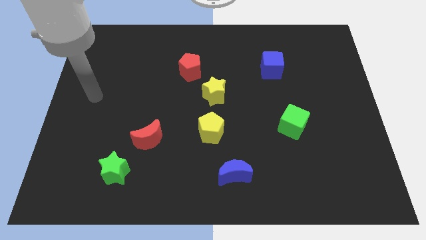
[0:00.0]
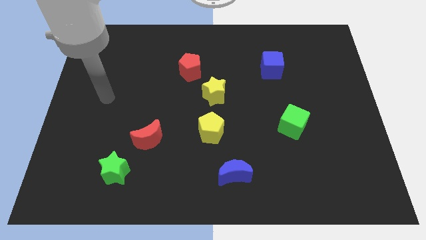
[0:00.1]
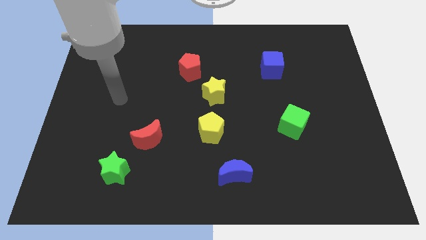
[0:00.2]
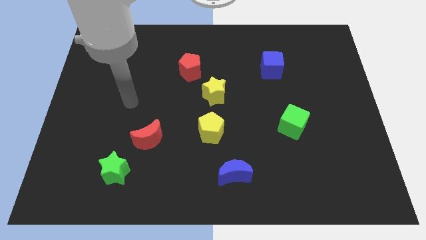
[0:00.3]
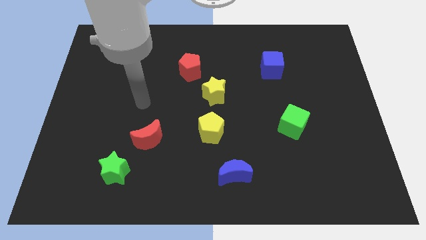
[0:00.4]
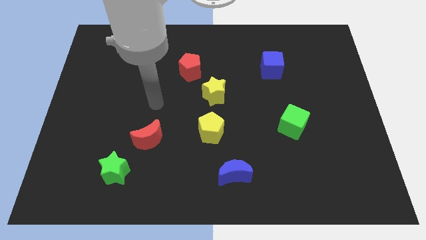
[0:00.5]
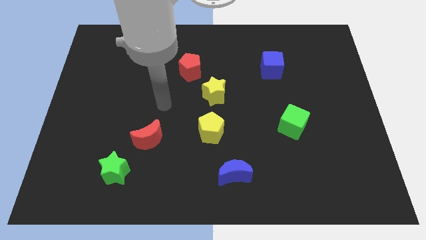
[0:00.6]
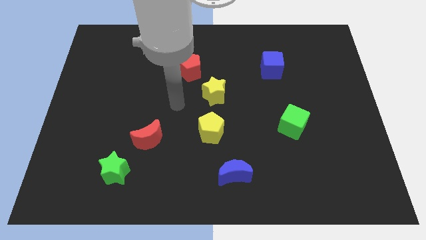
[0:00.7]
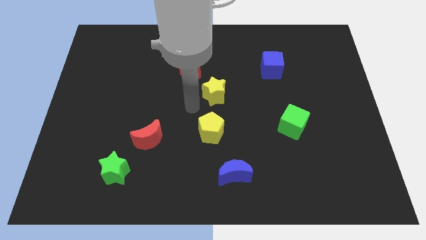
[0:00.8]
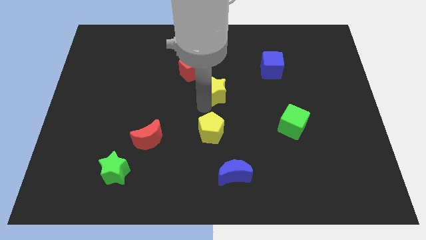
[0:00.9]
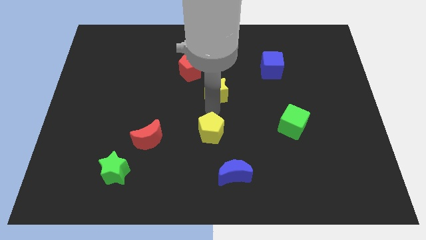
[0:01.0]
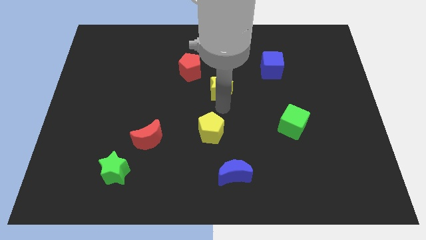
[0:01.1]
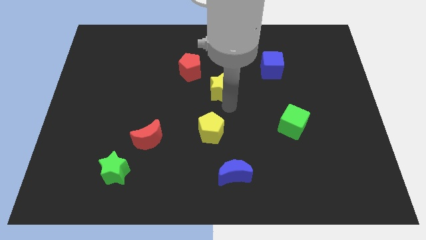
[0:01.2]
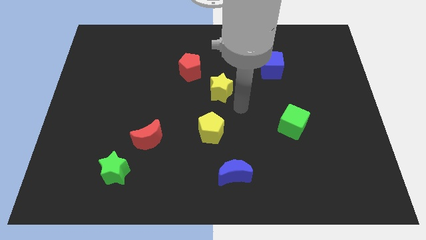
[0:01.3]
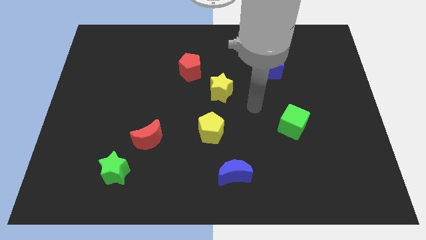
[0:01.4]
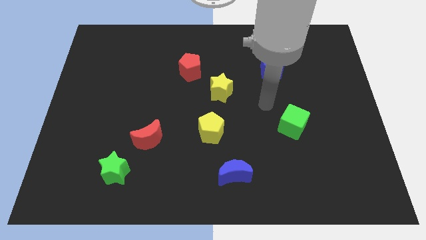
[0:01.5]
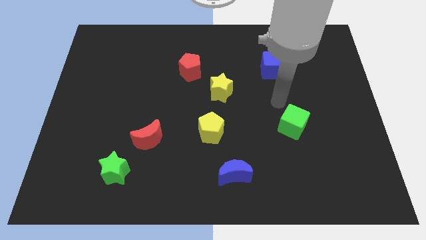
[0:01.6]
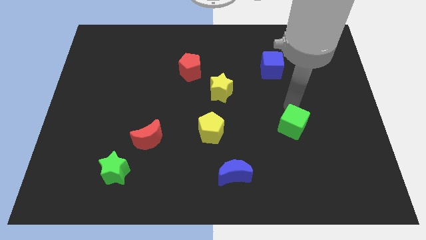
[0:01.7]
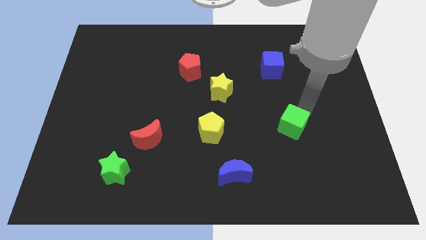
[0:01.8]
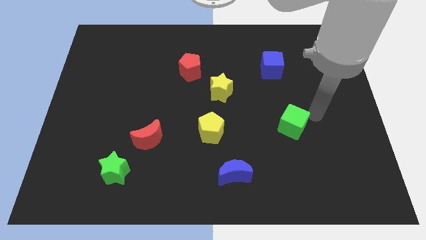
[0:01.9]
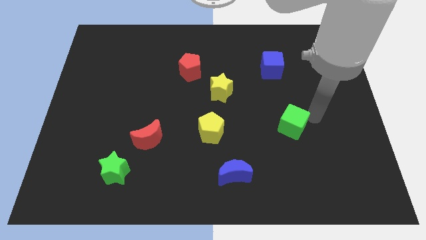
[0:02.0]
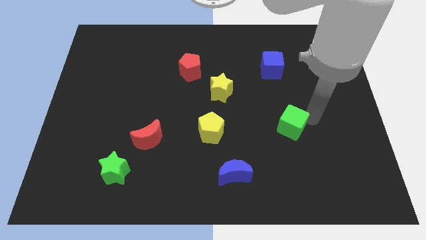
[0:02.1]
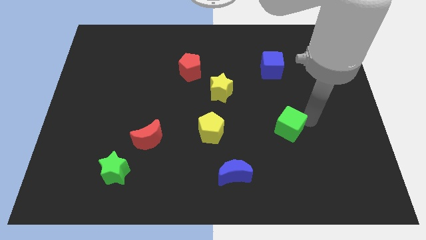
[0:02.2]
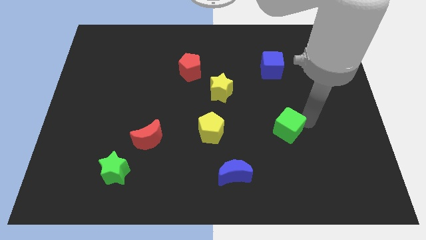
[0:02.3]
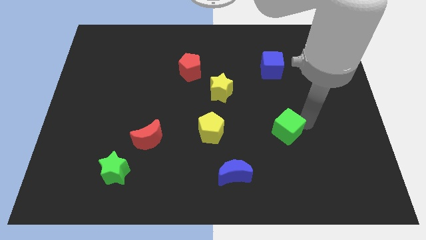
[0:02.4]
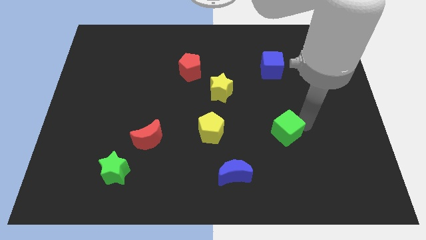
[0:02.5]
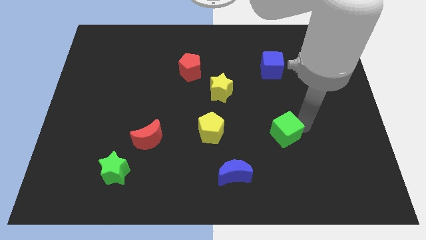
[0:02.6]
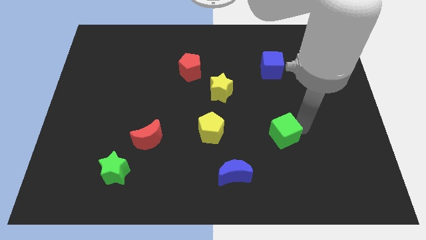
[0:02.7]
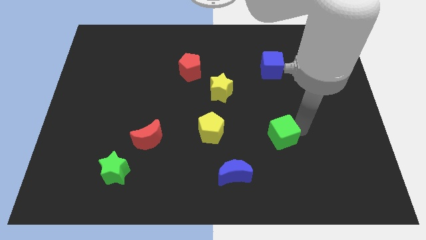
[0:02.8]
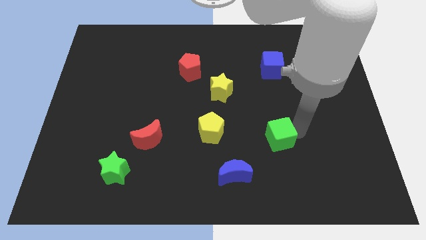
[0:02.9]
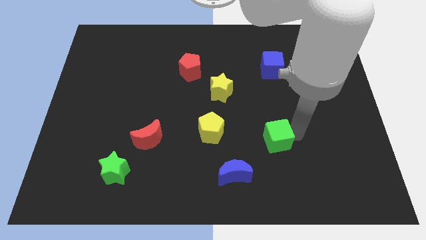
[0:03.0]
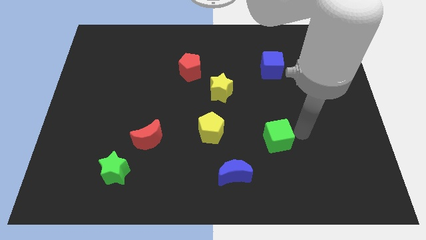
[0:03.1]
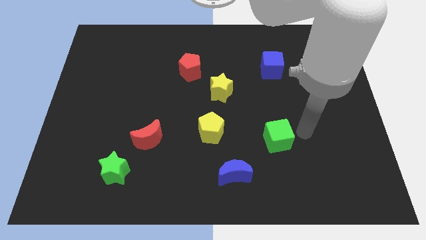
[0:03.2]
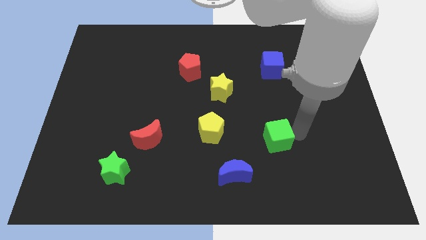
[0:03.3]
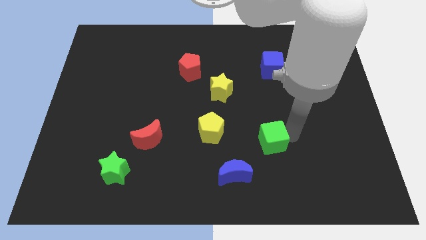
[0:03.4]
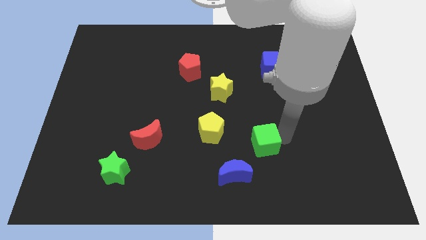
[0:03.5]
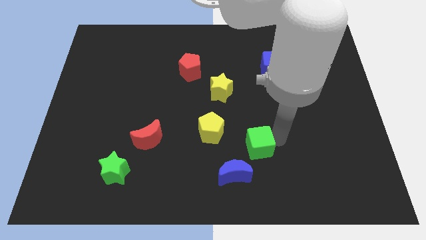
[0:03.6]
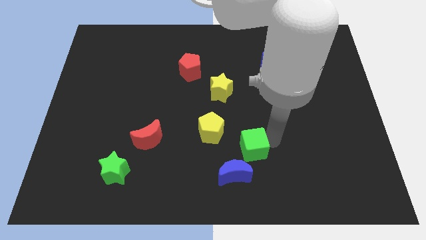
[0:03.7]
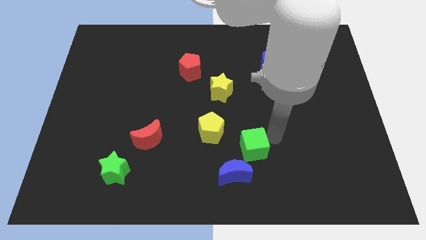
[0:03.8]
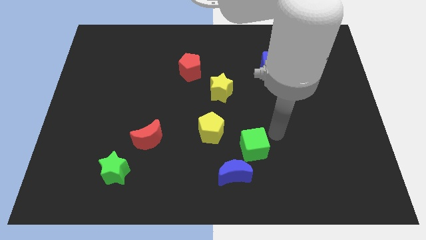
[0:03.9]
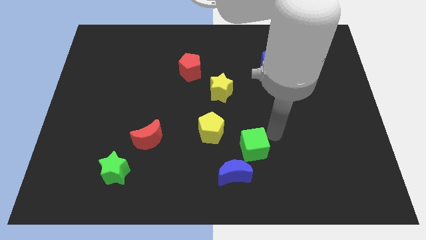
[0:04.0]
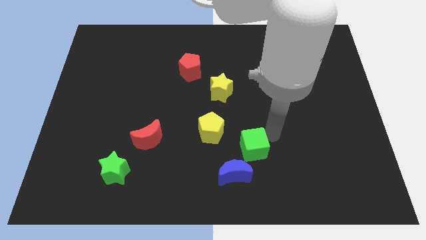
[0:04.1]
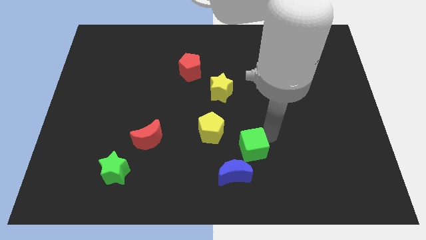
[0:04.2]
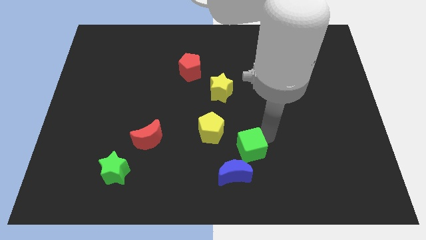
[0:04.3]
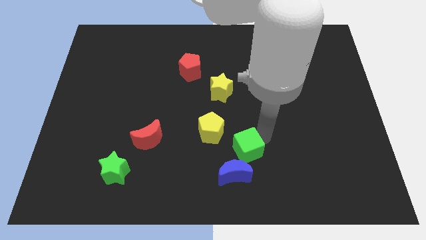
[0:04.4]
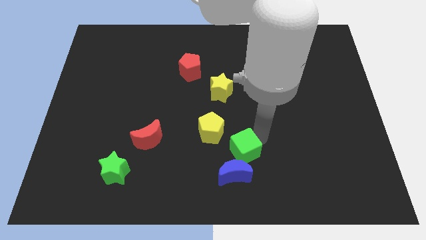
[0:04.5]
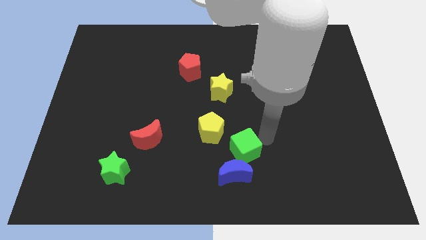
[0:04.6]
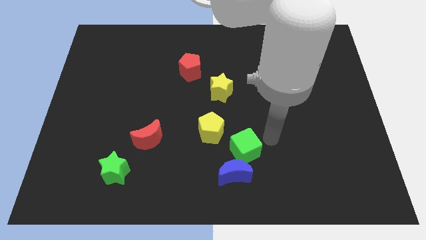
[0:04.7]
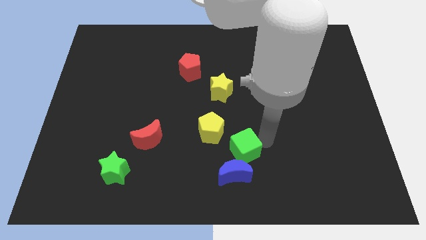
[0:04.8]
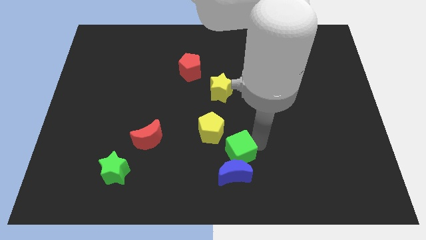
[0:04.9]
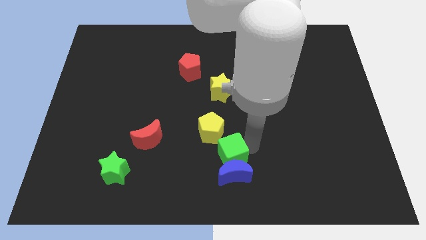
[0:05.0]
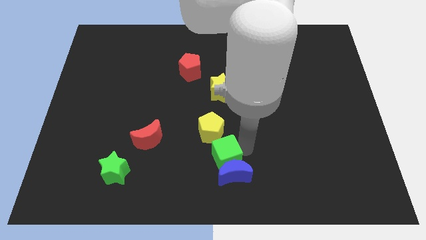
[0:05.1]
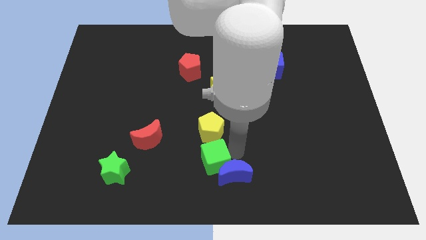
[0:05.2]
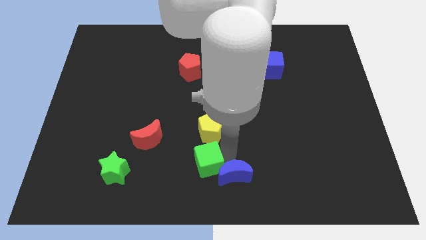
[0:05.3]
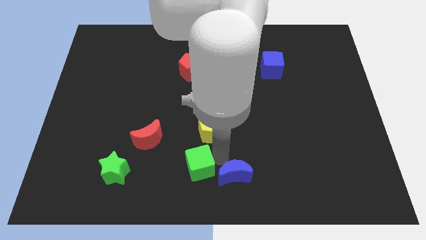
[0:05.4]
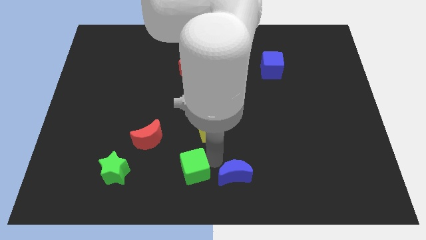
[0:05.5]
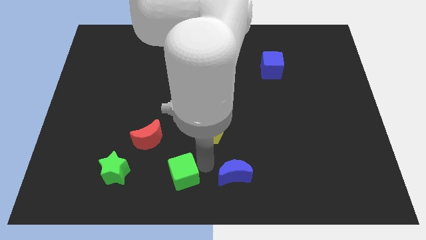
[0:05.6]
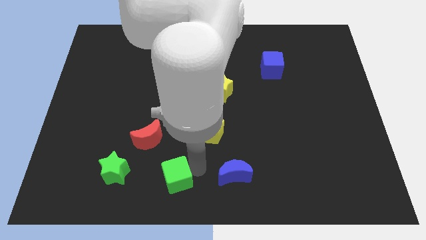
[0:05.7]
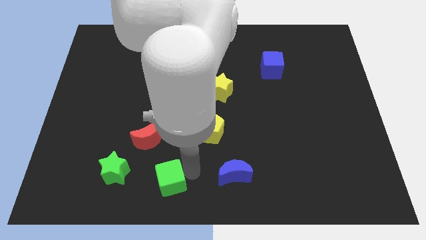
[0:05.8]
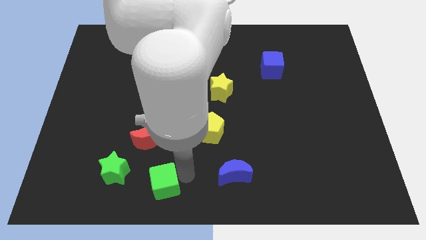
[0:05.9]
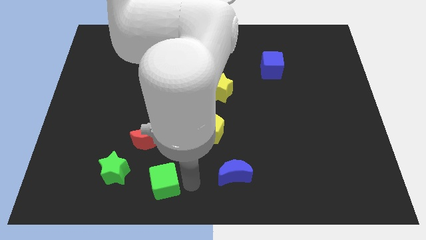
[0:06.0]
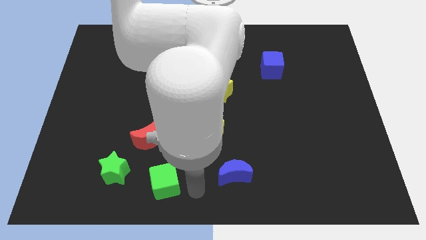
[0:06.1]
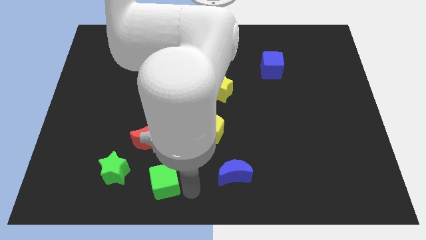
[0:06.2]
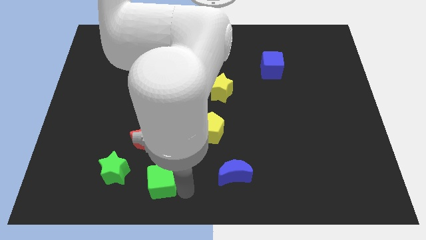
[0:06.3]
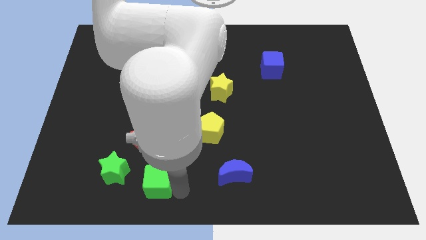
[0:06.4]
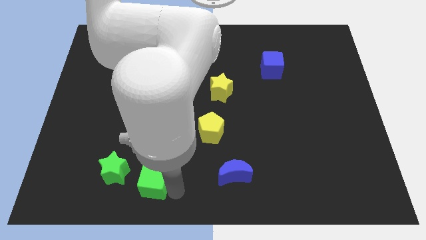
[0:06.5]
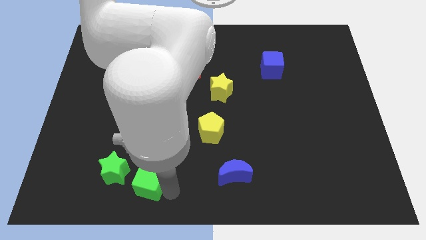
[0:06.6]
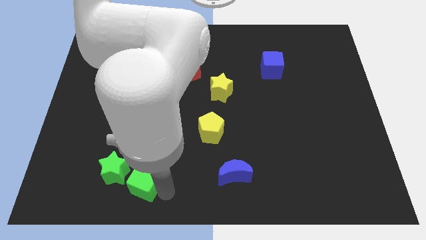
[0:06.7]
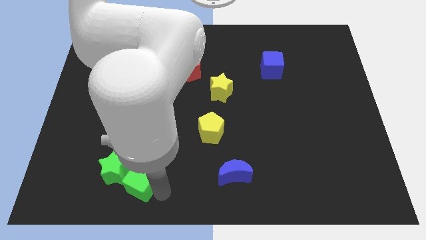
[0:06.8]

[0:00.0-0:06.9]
put the green cube to the green star

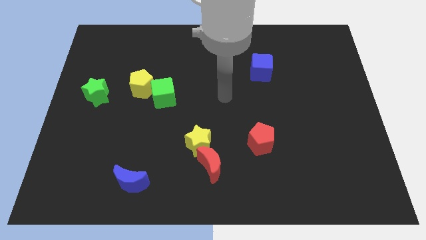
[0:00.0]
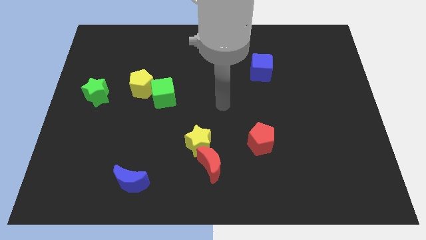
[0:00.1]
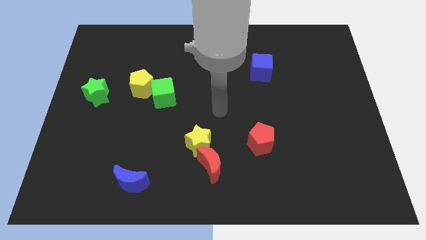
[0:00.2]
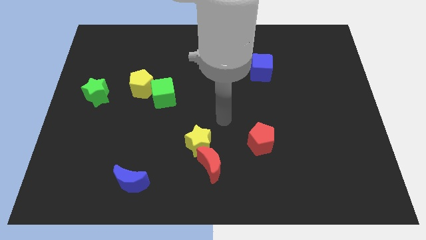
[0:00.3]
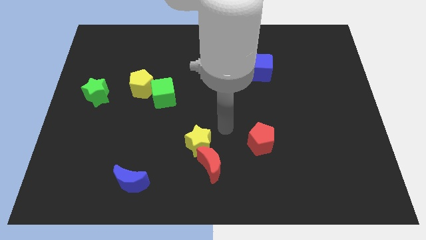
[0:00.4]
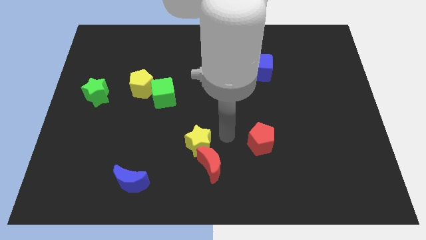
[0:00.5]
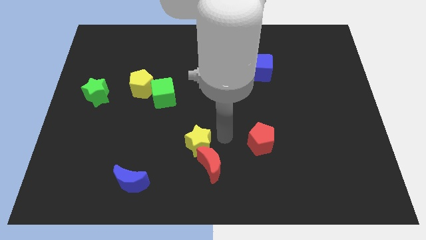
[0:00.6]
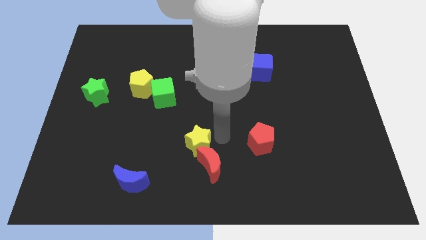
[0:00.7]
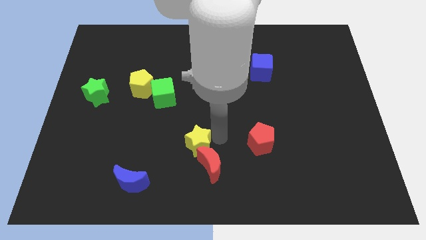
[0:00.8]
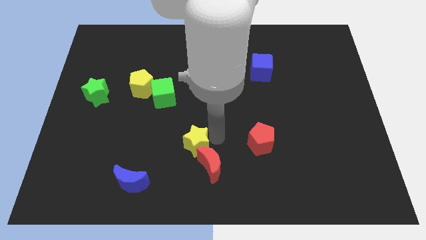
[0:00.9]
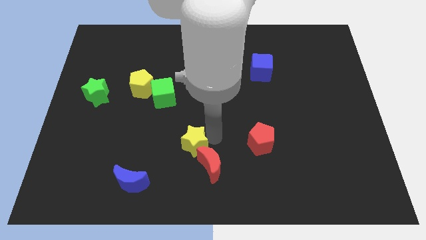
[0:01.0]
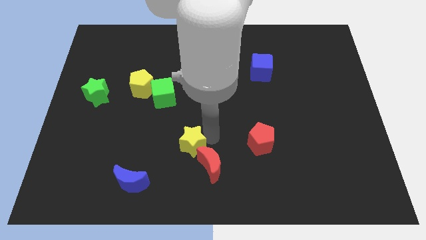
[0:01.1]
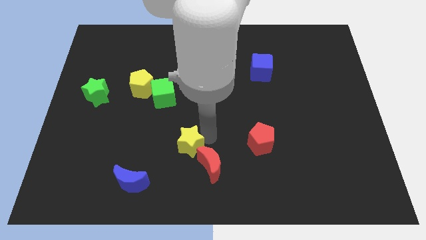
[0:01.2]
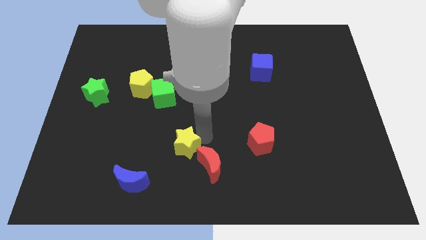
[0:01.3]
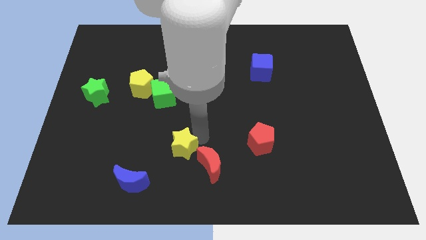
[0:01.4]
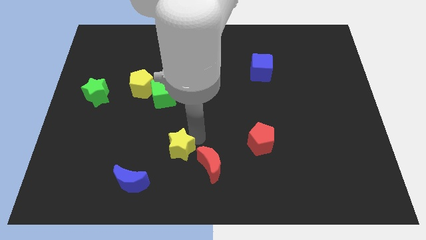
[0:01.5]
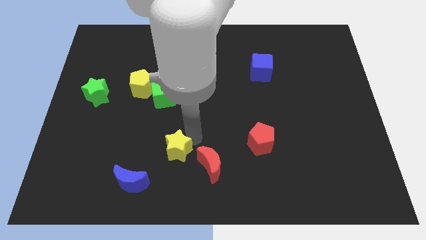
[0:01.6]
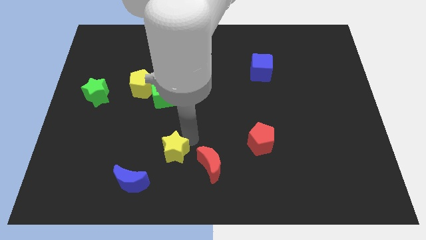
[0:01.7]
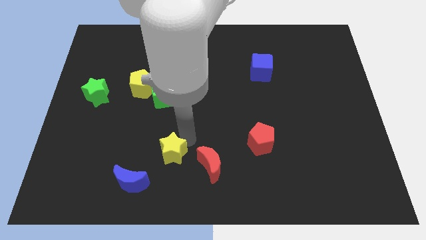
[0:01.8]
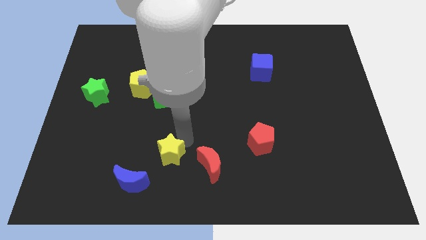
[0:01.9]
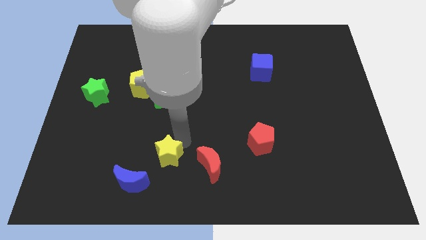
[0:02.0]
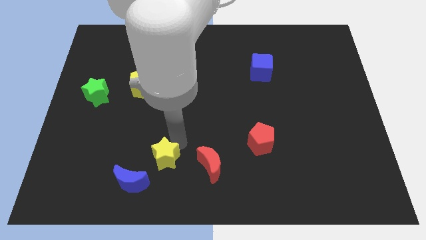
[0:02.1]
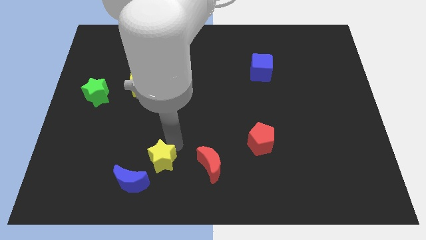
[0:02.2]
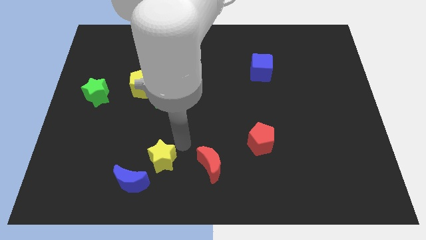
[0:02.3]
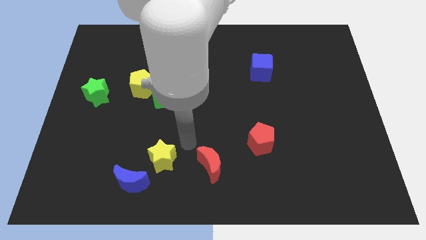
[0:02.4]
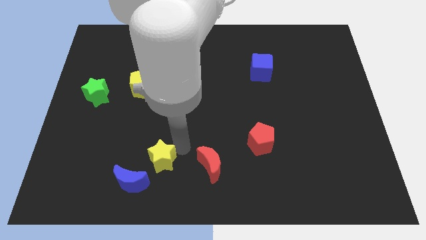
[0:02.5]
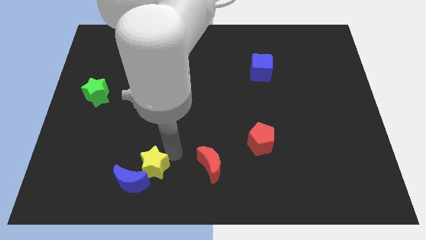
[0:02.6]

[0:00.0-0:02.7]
slide the yellow star close to the blue moon
